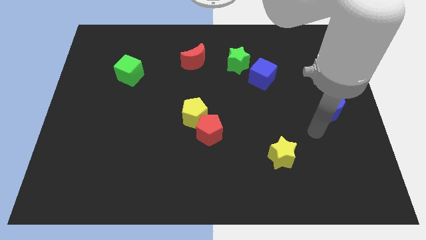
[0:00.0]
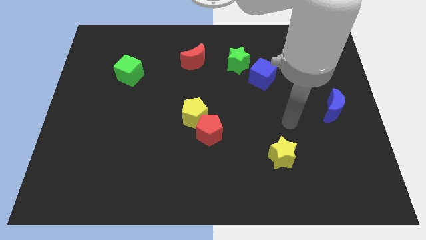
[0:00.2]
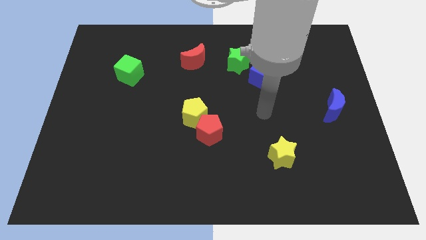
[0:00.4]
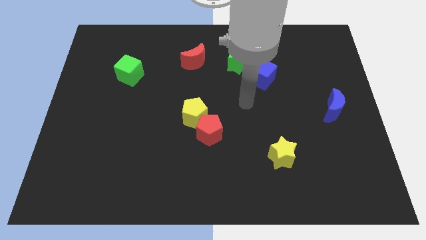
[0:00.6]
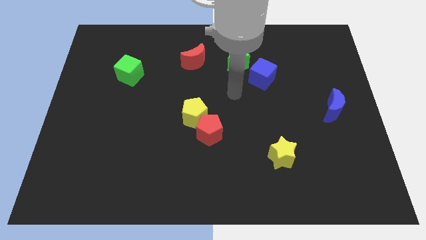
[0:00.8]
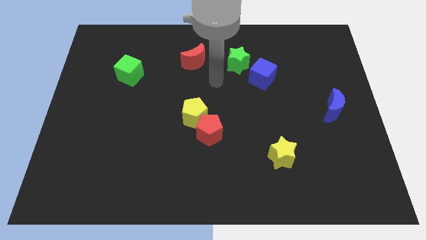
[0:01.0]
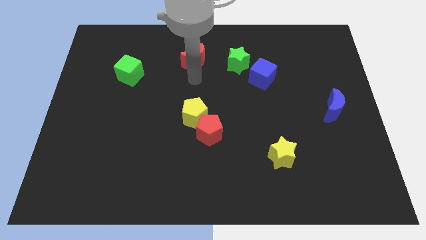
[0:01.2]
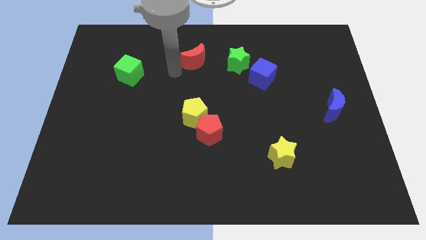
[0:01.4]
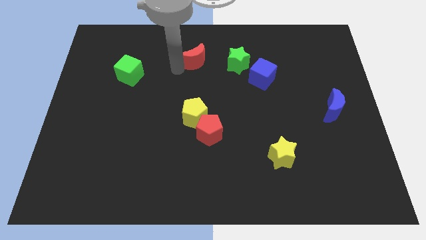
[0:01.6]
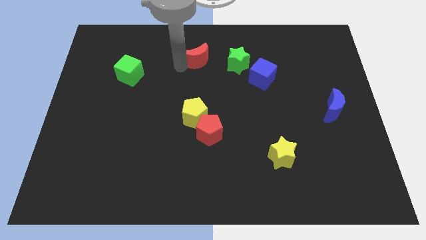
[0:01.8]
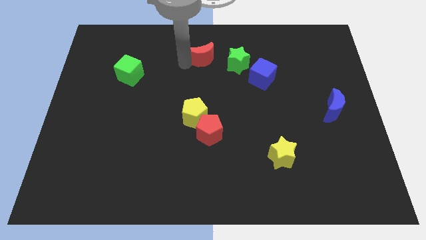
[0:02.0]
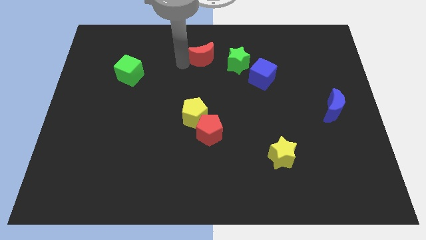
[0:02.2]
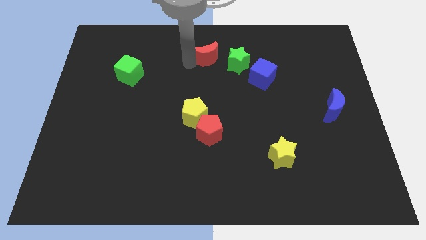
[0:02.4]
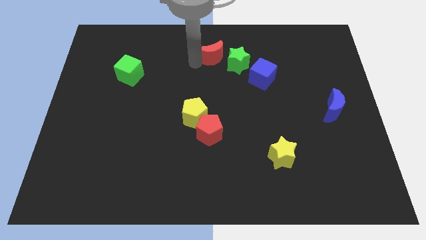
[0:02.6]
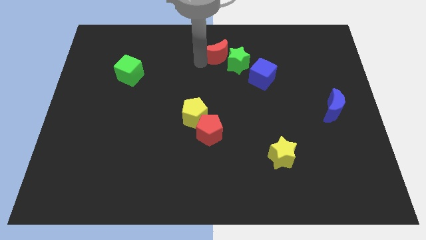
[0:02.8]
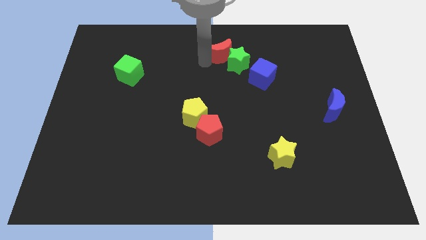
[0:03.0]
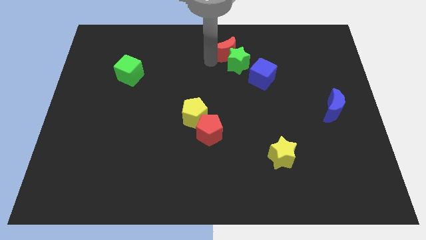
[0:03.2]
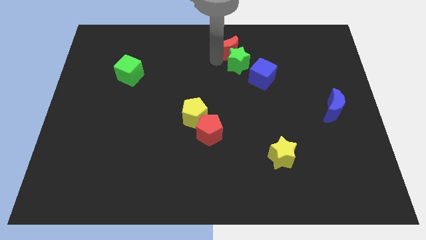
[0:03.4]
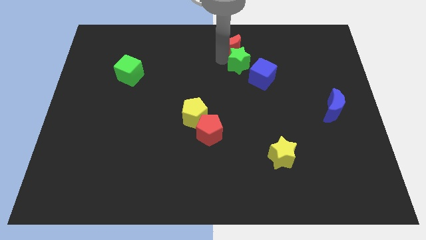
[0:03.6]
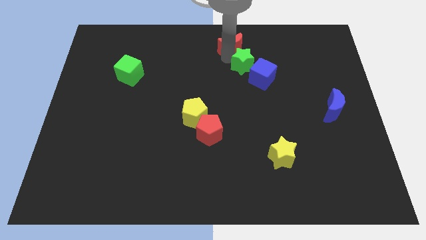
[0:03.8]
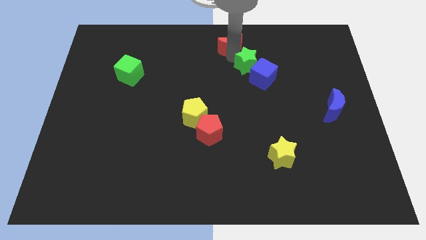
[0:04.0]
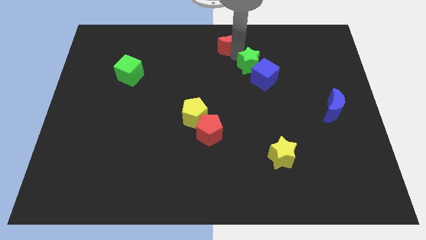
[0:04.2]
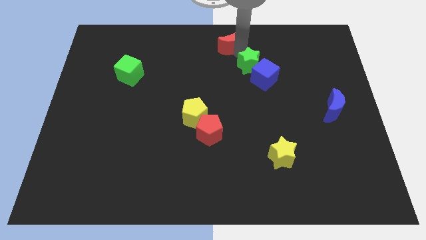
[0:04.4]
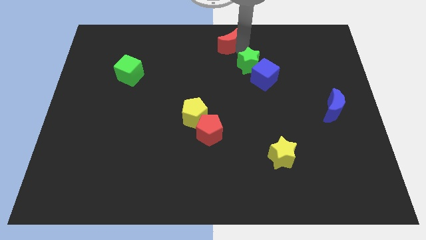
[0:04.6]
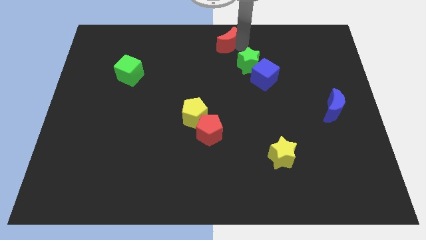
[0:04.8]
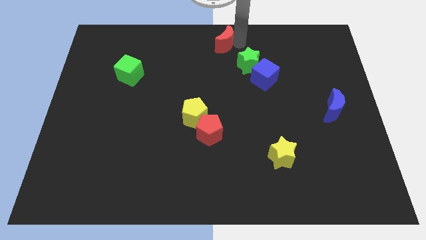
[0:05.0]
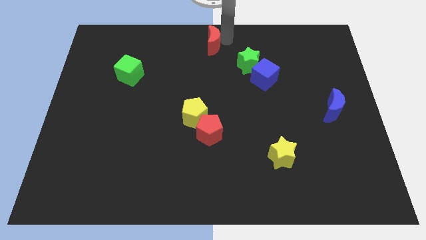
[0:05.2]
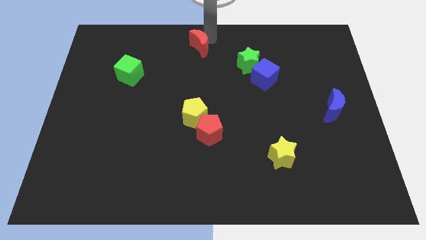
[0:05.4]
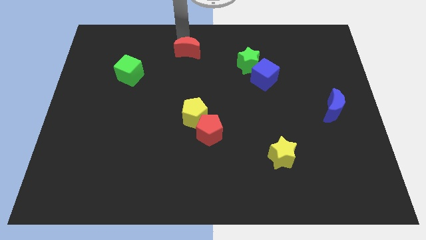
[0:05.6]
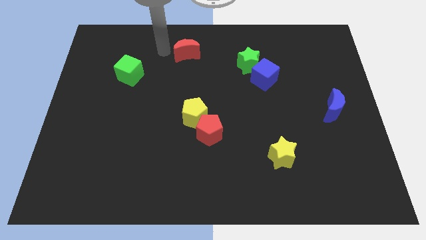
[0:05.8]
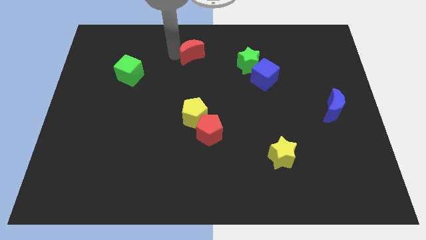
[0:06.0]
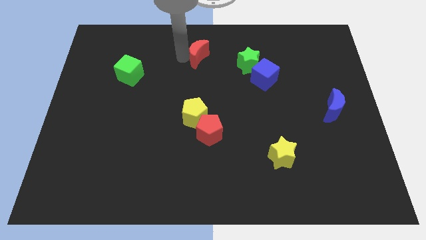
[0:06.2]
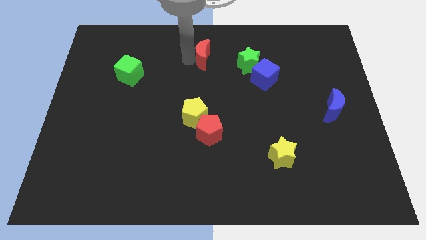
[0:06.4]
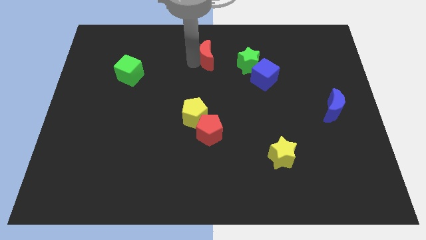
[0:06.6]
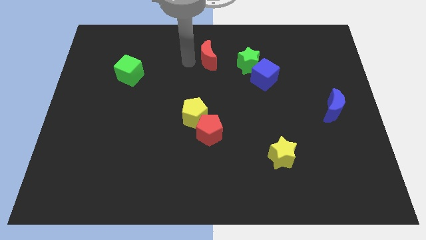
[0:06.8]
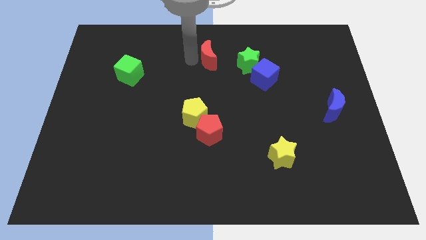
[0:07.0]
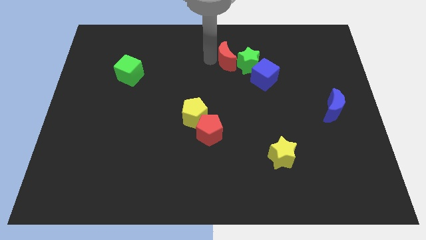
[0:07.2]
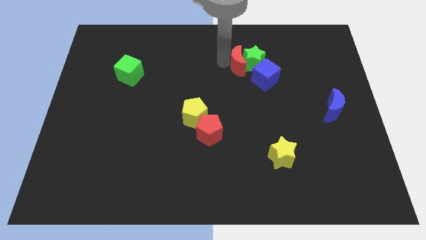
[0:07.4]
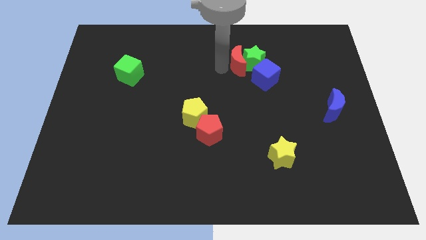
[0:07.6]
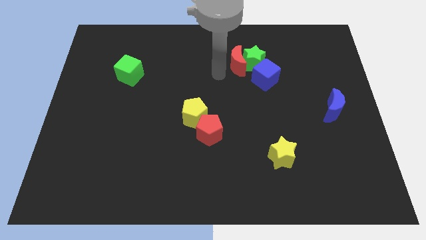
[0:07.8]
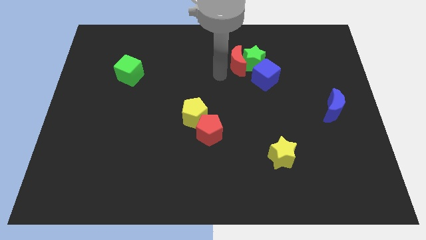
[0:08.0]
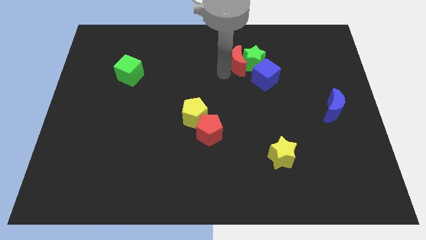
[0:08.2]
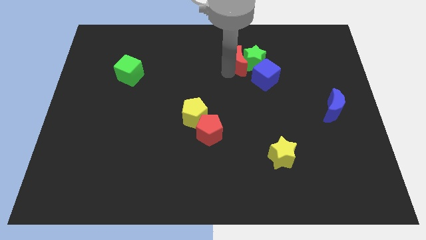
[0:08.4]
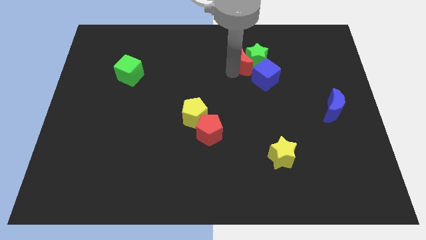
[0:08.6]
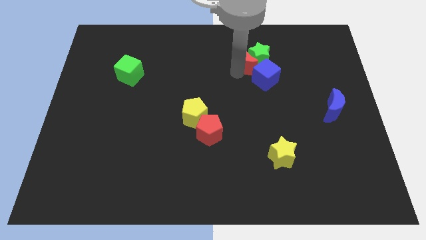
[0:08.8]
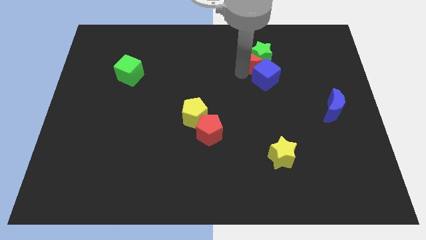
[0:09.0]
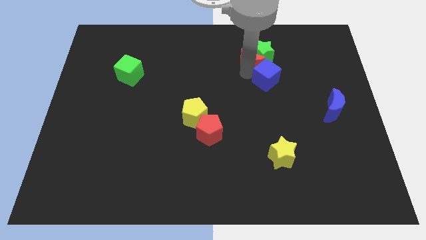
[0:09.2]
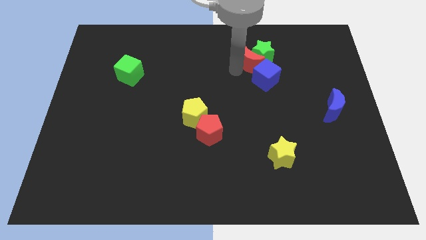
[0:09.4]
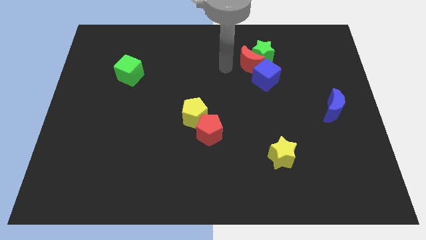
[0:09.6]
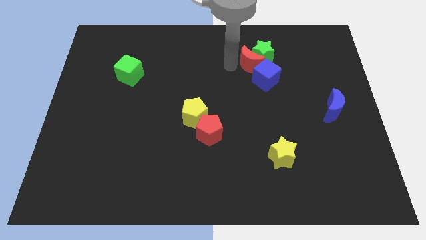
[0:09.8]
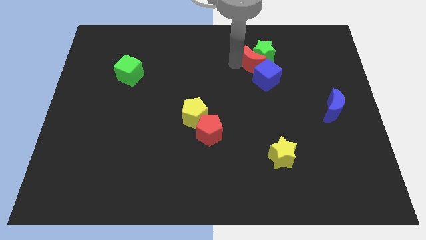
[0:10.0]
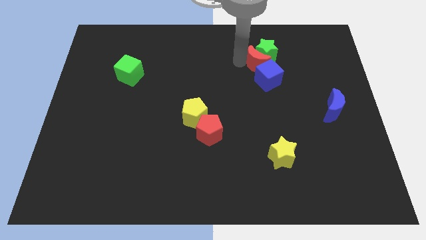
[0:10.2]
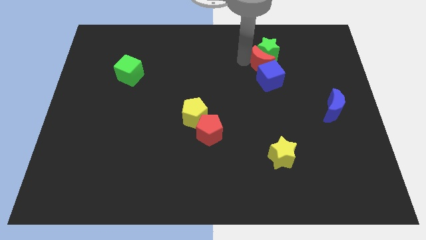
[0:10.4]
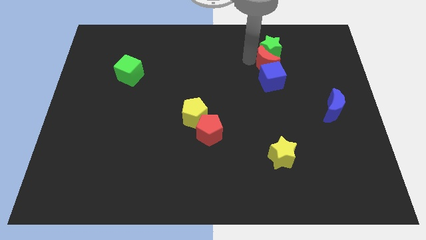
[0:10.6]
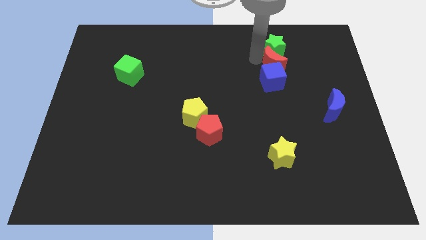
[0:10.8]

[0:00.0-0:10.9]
move the red moon to the right

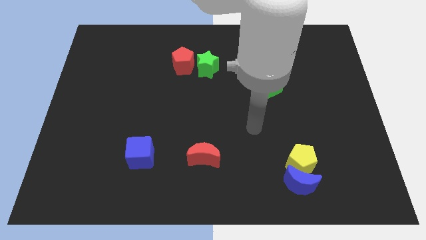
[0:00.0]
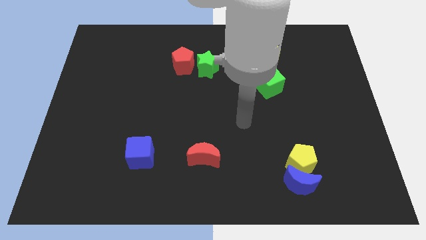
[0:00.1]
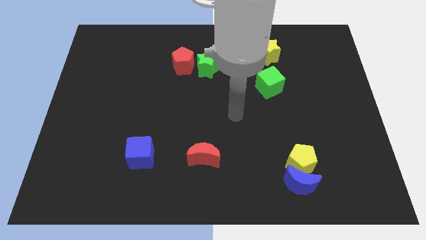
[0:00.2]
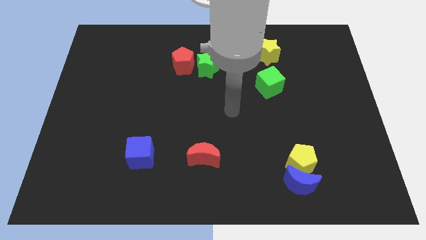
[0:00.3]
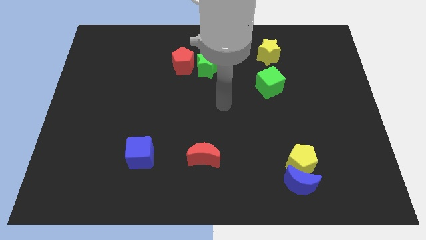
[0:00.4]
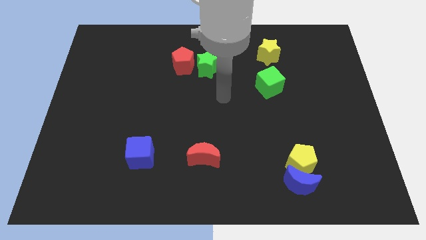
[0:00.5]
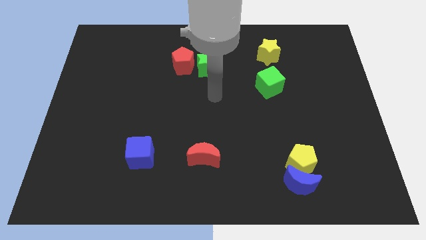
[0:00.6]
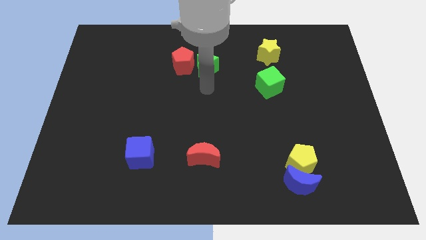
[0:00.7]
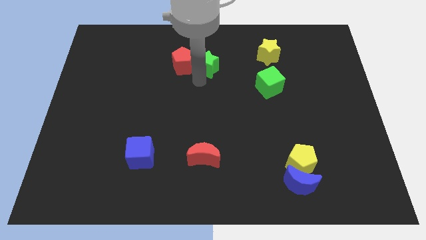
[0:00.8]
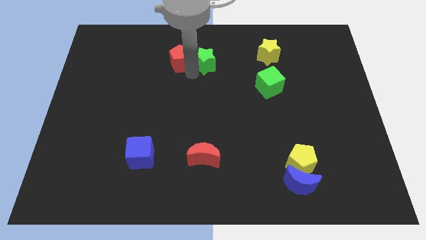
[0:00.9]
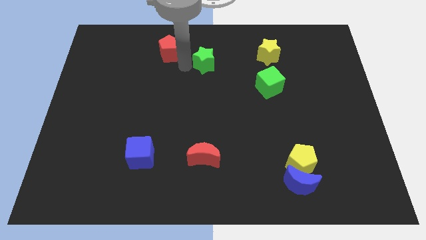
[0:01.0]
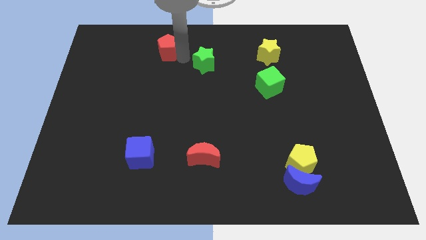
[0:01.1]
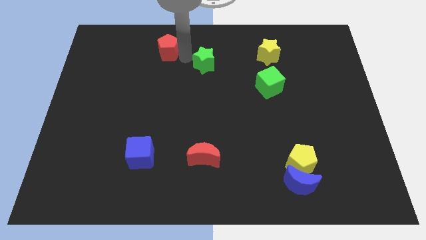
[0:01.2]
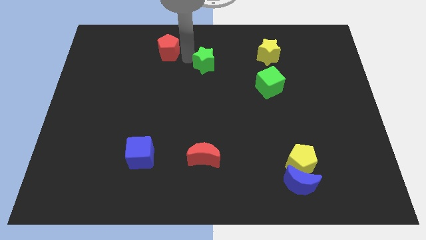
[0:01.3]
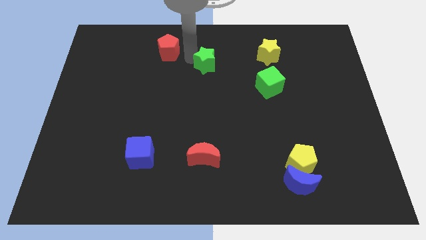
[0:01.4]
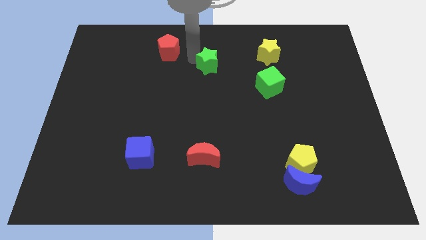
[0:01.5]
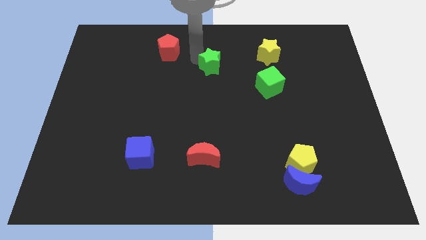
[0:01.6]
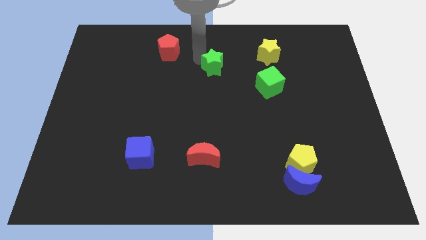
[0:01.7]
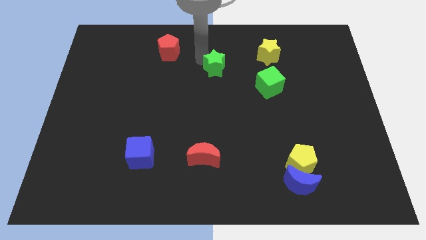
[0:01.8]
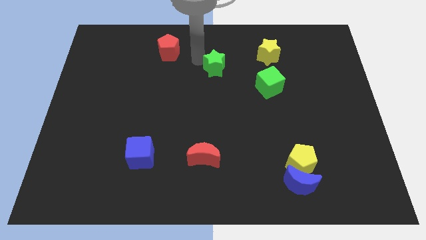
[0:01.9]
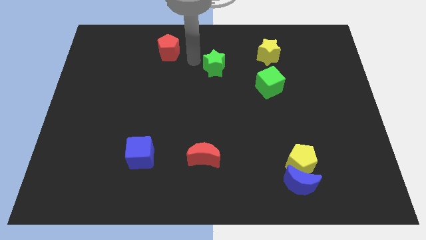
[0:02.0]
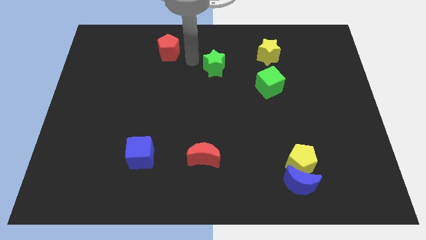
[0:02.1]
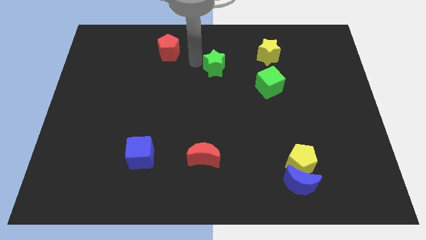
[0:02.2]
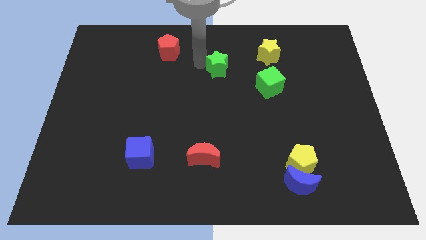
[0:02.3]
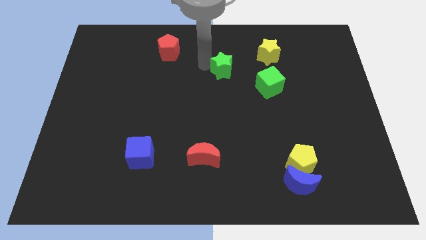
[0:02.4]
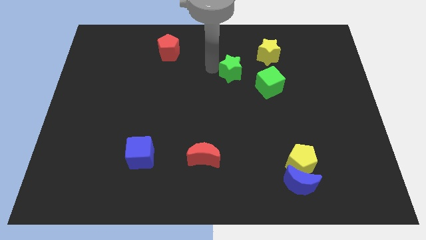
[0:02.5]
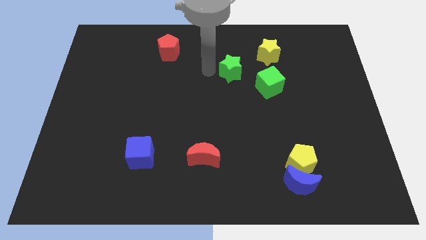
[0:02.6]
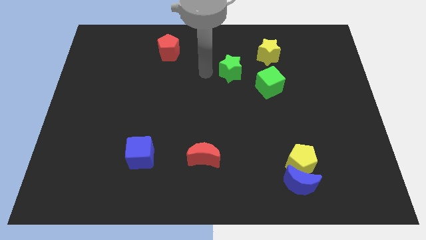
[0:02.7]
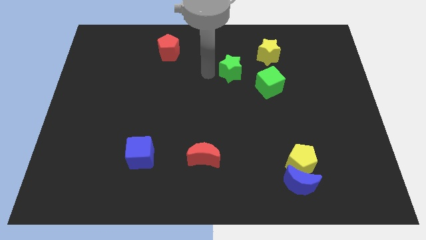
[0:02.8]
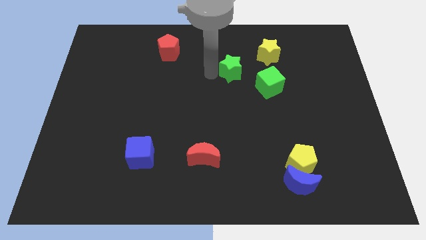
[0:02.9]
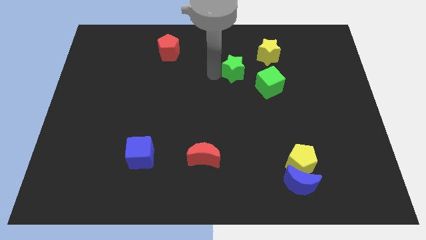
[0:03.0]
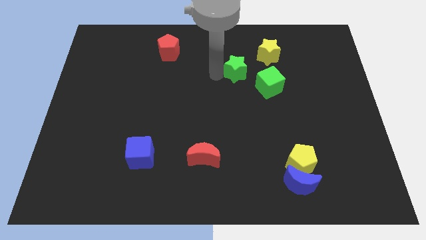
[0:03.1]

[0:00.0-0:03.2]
move the green star a bit right
